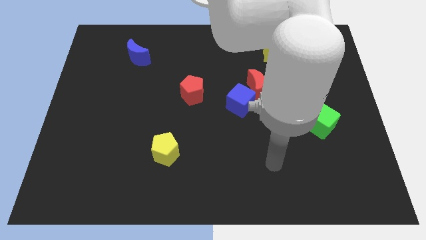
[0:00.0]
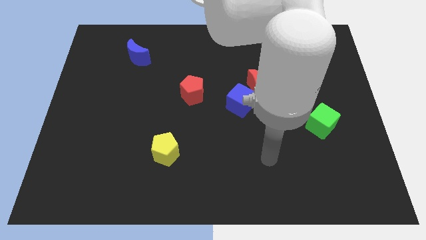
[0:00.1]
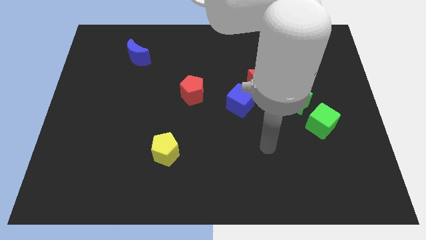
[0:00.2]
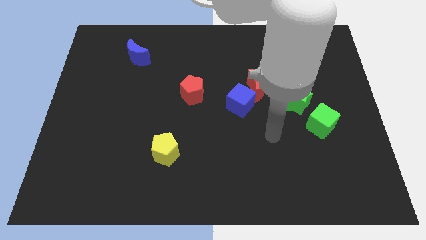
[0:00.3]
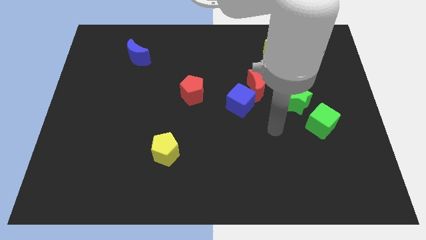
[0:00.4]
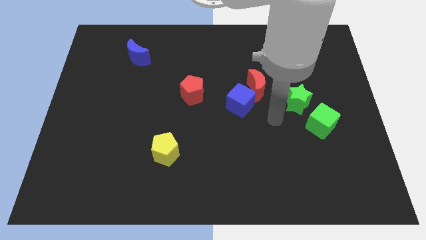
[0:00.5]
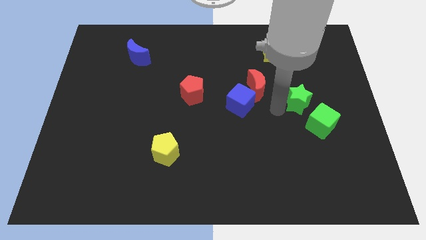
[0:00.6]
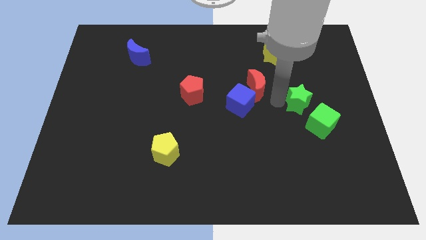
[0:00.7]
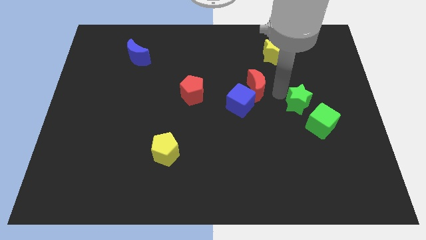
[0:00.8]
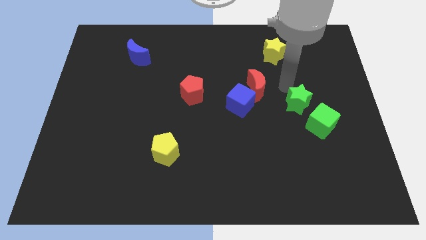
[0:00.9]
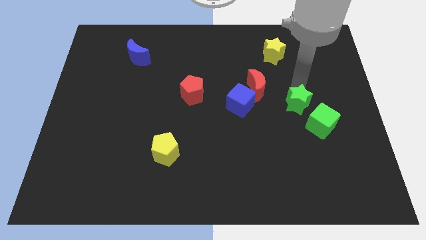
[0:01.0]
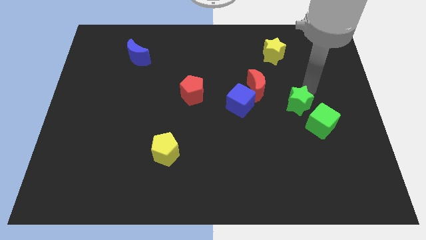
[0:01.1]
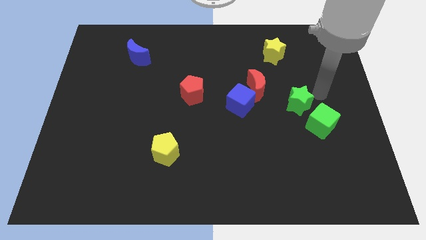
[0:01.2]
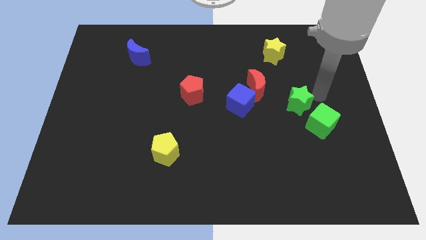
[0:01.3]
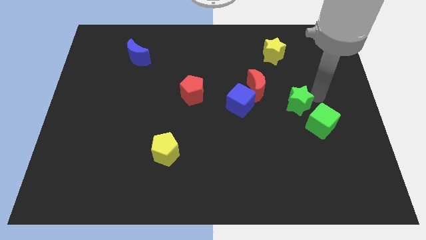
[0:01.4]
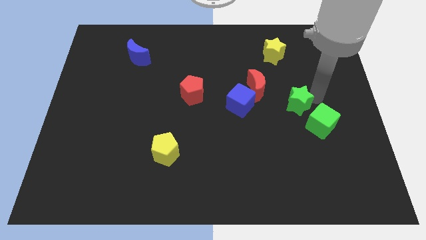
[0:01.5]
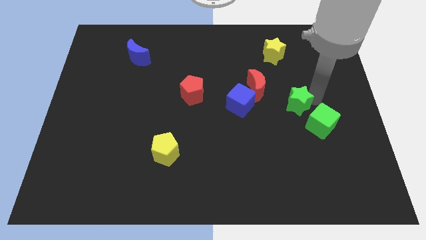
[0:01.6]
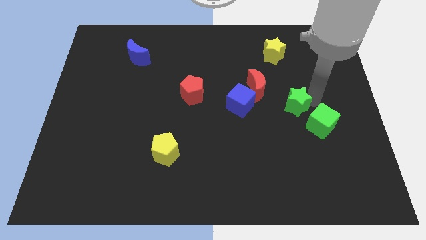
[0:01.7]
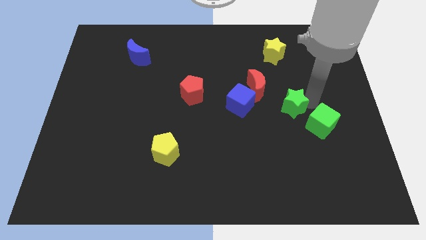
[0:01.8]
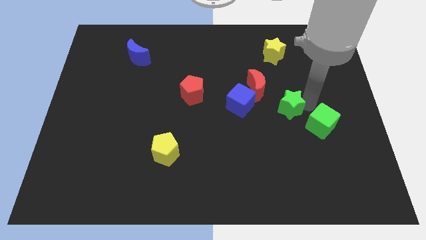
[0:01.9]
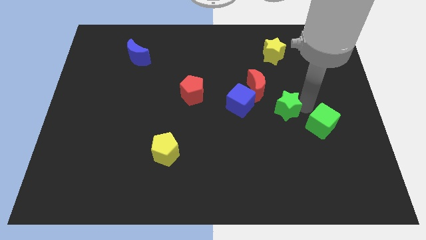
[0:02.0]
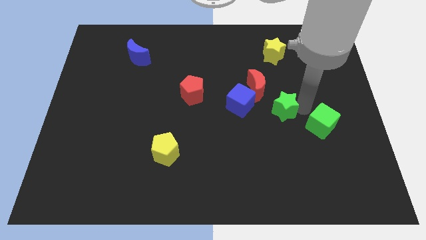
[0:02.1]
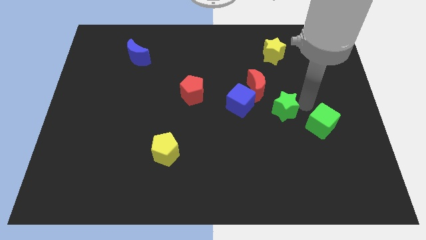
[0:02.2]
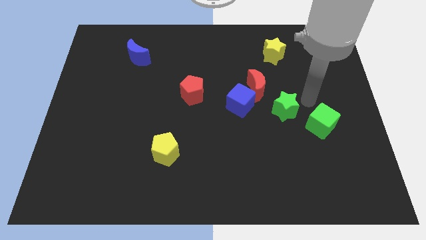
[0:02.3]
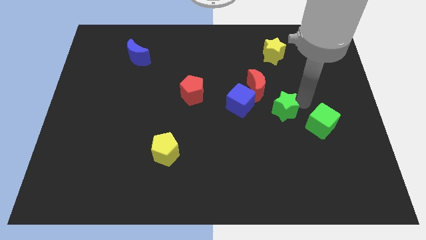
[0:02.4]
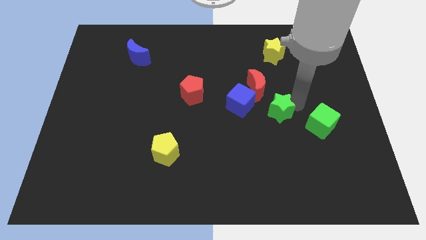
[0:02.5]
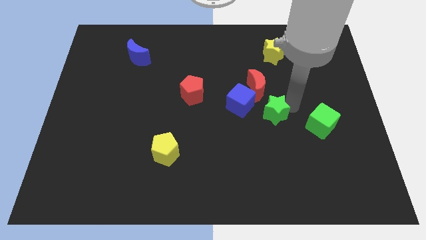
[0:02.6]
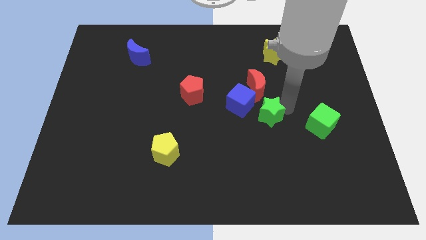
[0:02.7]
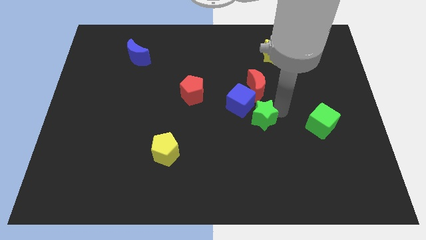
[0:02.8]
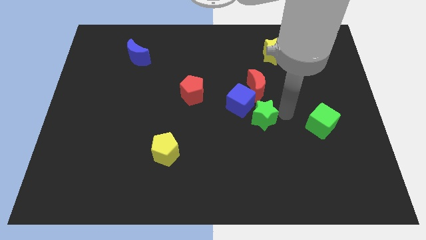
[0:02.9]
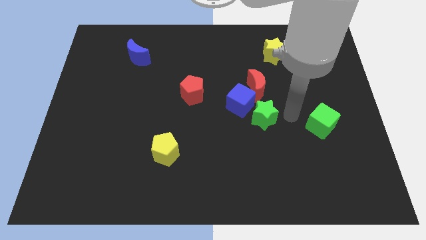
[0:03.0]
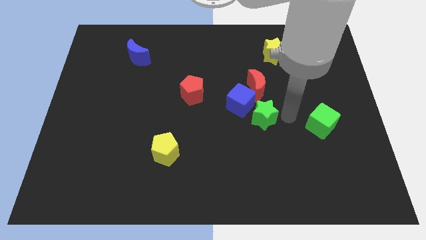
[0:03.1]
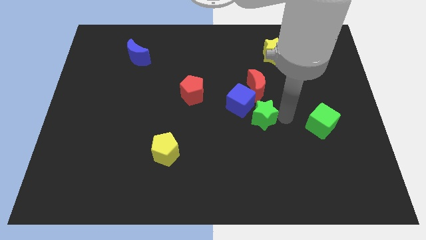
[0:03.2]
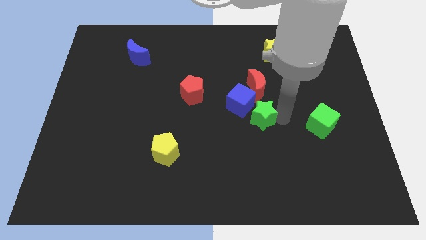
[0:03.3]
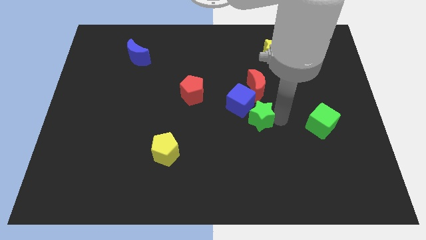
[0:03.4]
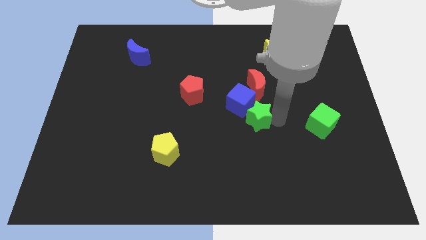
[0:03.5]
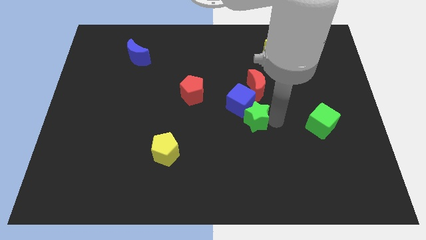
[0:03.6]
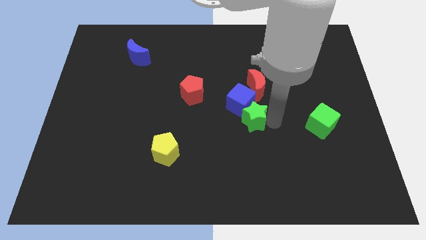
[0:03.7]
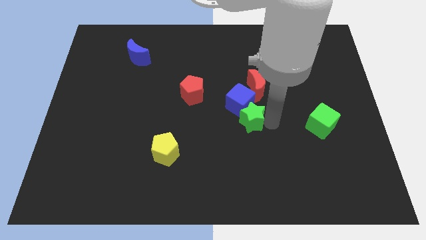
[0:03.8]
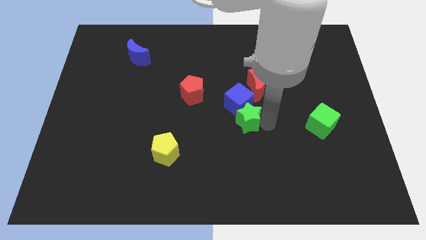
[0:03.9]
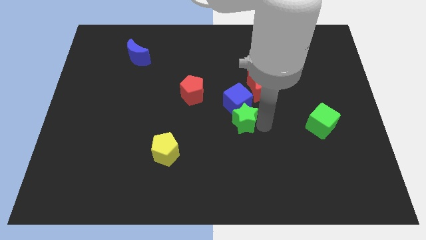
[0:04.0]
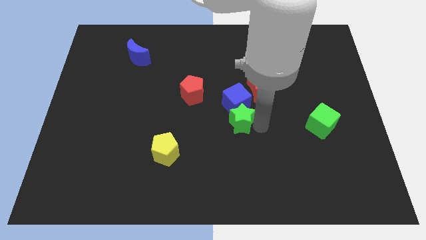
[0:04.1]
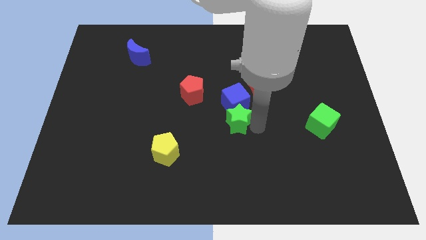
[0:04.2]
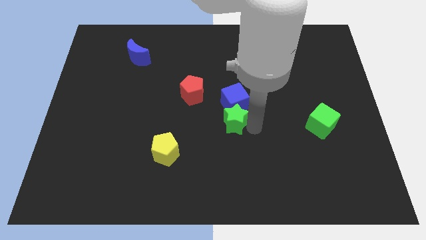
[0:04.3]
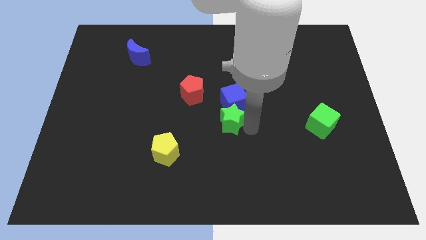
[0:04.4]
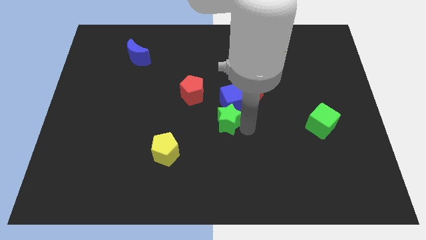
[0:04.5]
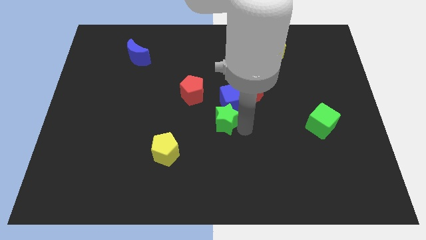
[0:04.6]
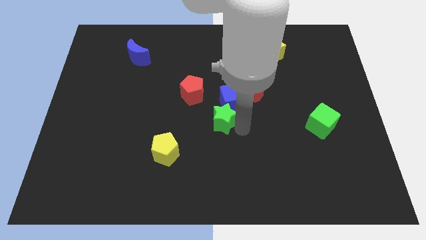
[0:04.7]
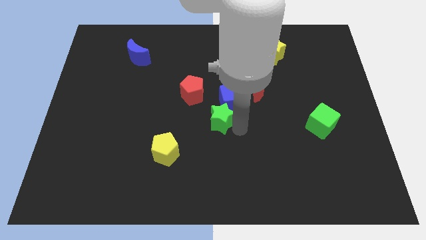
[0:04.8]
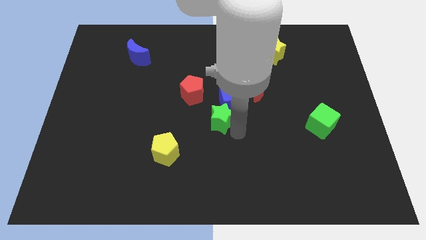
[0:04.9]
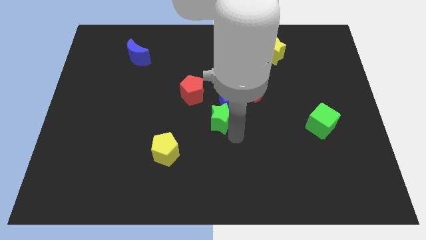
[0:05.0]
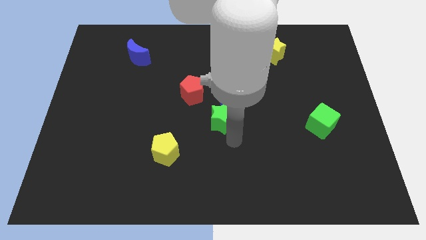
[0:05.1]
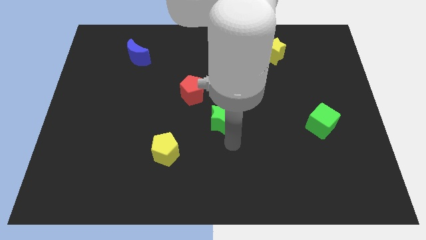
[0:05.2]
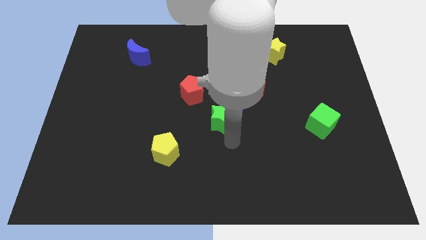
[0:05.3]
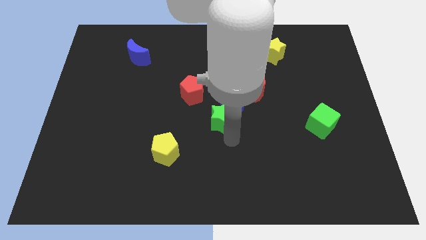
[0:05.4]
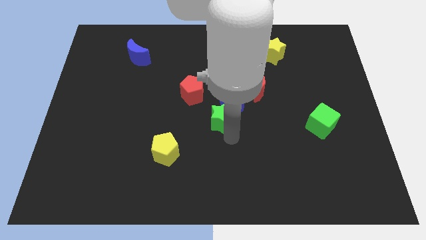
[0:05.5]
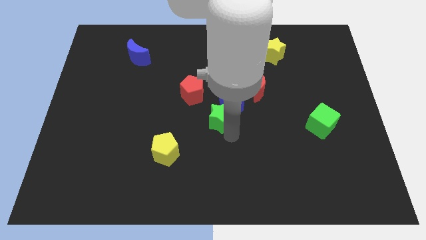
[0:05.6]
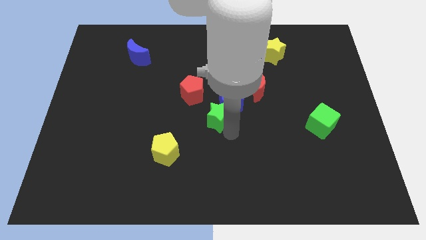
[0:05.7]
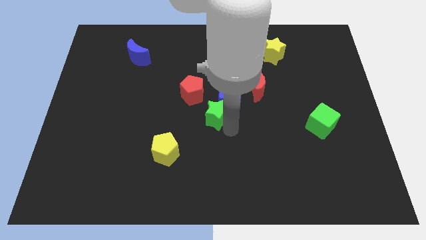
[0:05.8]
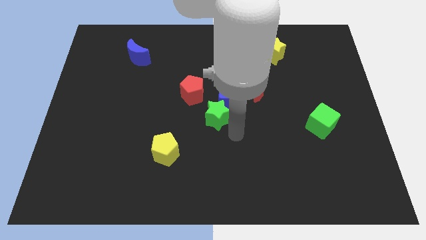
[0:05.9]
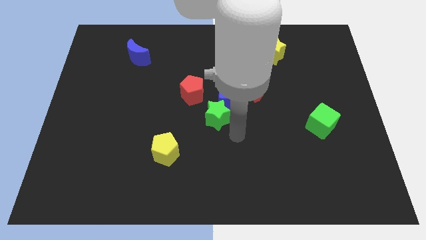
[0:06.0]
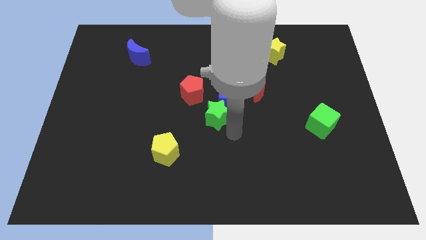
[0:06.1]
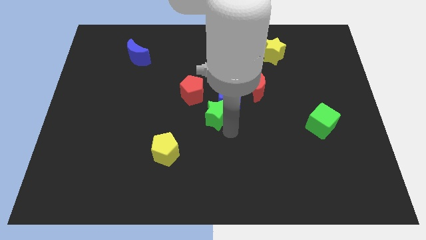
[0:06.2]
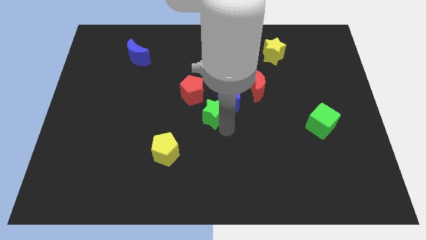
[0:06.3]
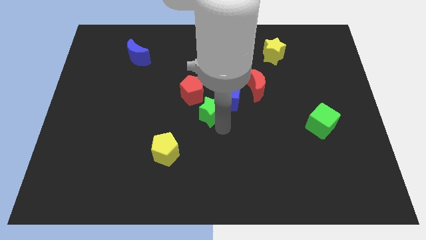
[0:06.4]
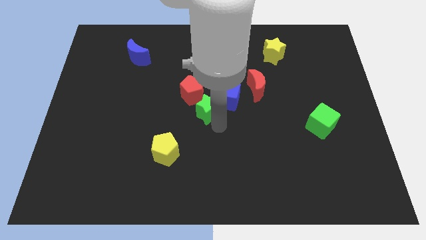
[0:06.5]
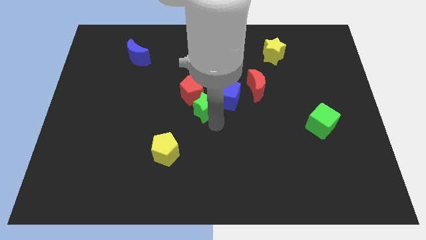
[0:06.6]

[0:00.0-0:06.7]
put the green star to the red pentagon

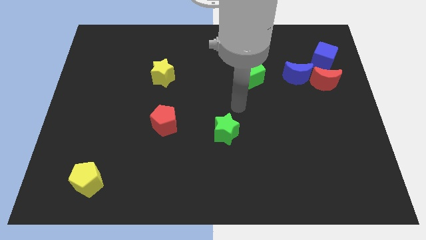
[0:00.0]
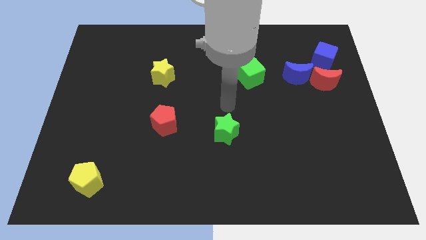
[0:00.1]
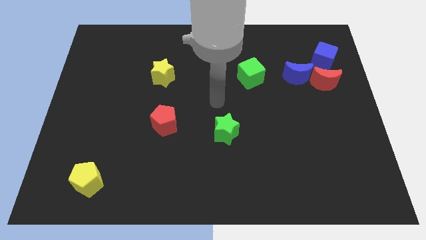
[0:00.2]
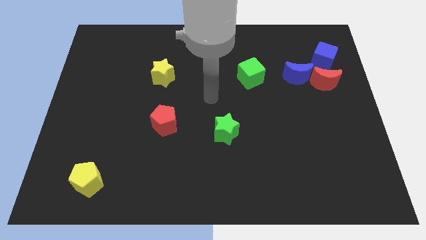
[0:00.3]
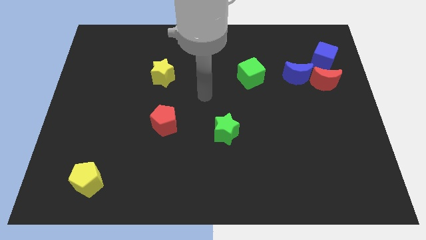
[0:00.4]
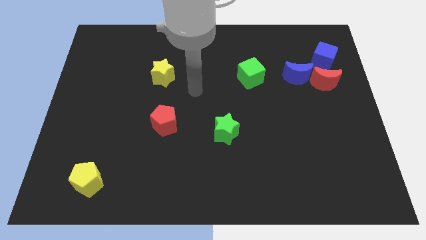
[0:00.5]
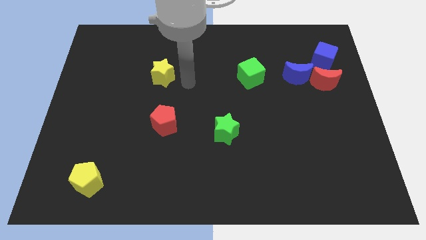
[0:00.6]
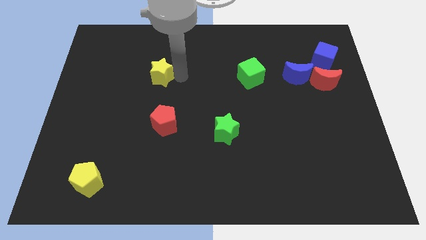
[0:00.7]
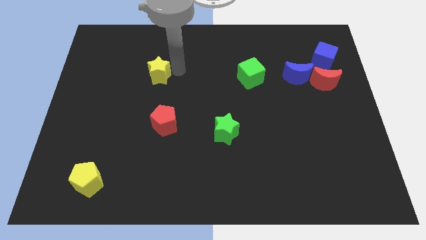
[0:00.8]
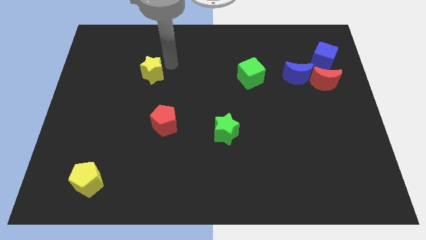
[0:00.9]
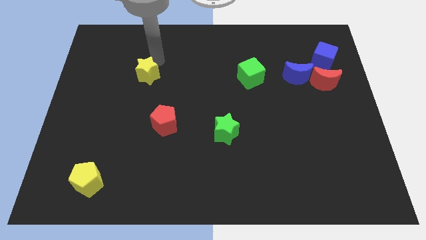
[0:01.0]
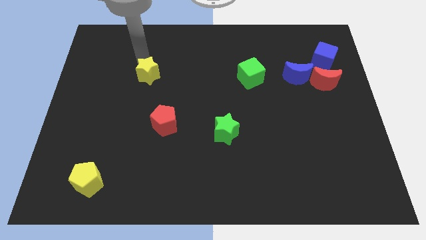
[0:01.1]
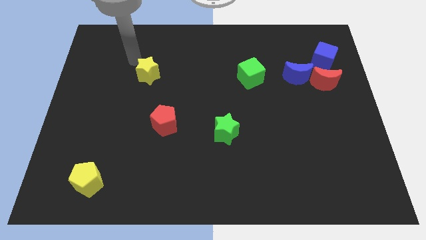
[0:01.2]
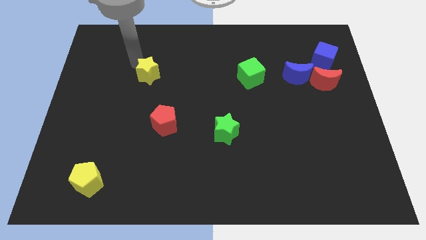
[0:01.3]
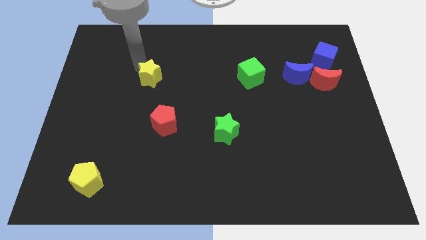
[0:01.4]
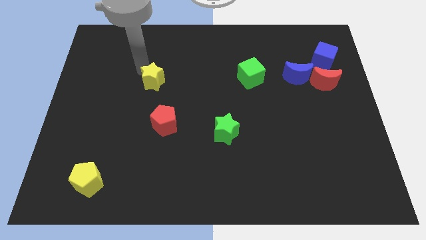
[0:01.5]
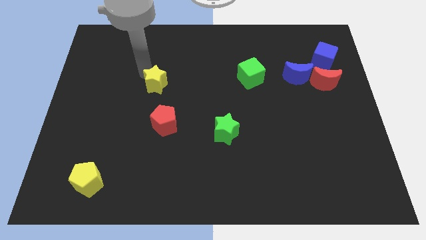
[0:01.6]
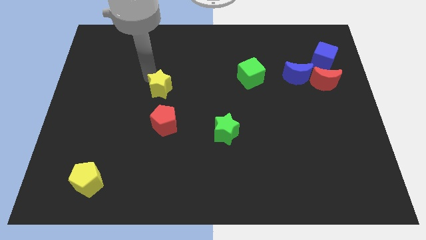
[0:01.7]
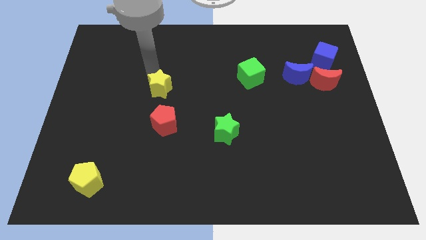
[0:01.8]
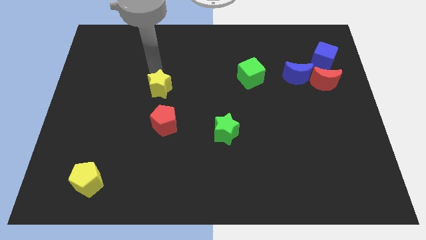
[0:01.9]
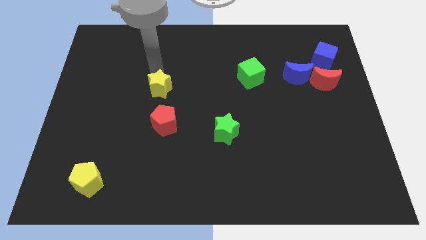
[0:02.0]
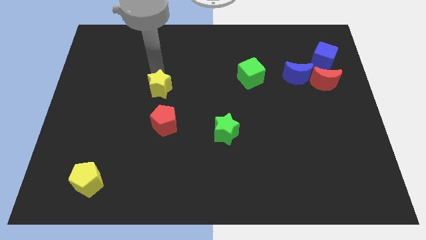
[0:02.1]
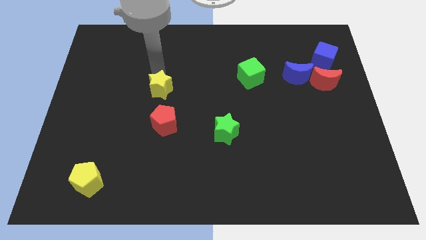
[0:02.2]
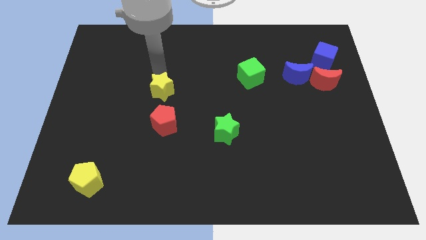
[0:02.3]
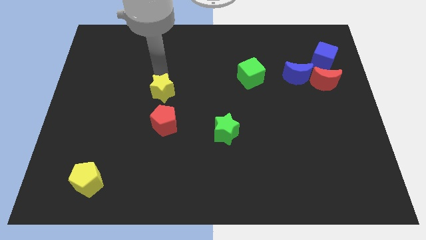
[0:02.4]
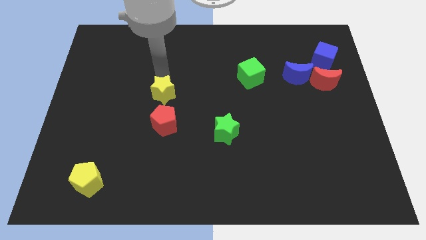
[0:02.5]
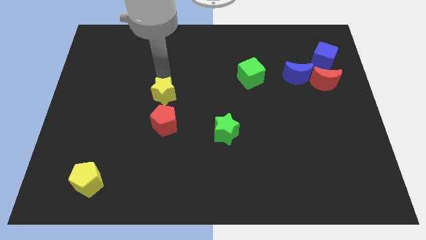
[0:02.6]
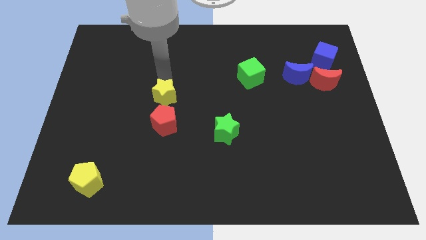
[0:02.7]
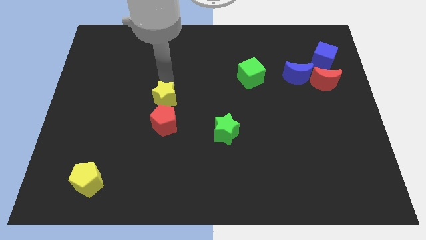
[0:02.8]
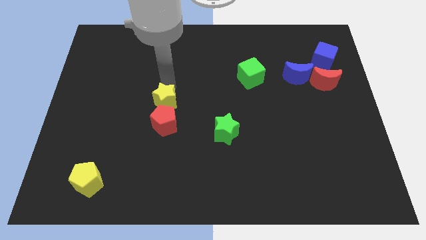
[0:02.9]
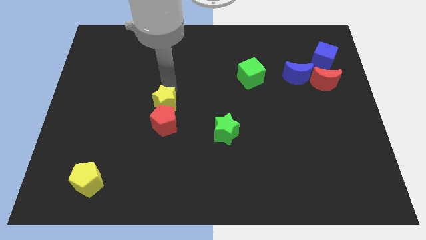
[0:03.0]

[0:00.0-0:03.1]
slide the yellow star close to the red pentagon
